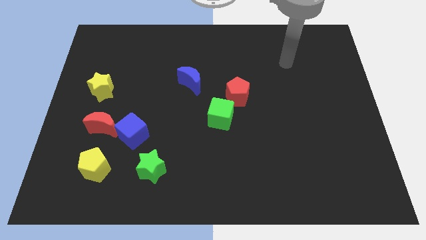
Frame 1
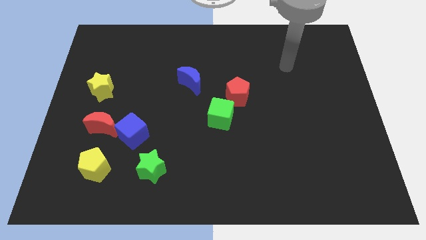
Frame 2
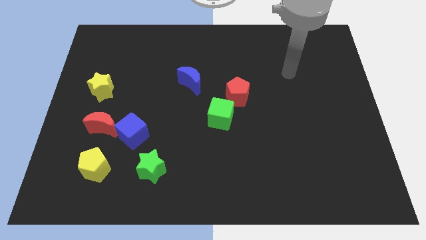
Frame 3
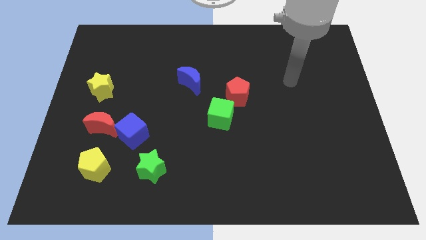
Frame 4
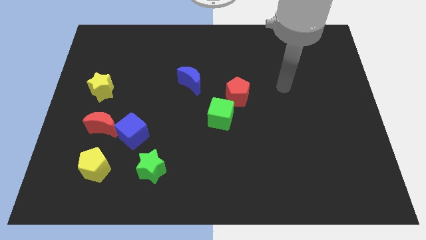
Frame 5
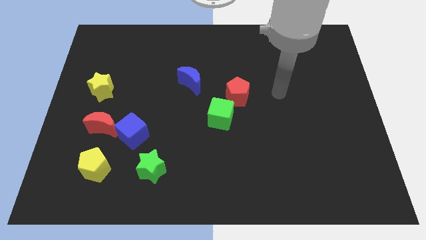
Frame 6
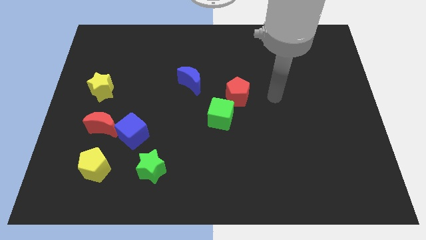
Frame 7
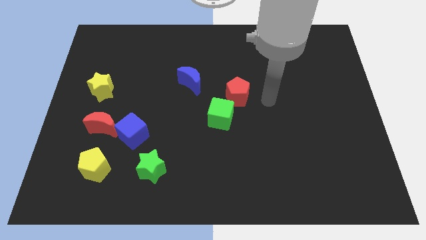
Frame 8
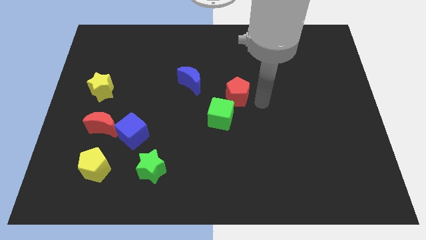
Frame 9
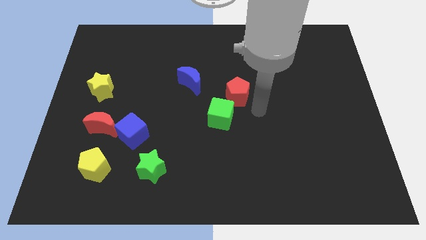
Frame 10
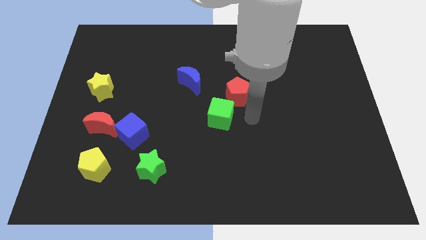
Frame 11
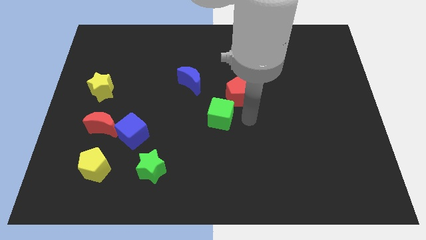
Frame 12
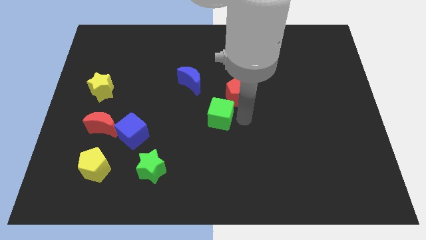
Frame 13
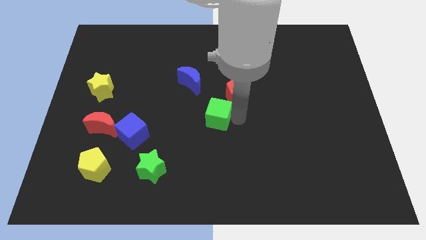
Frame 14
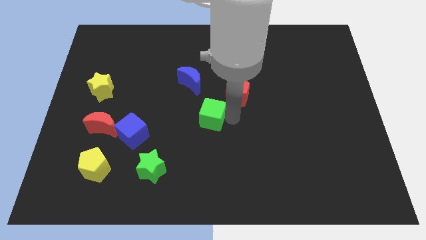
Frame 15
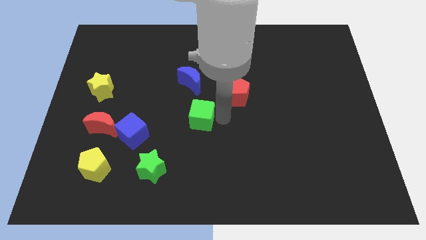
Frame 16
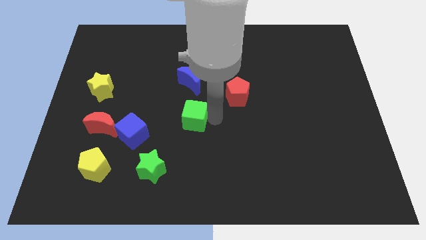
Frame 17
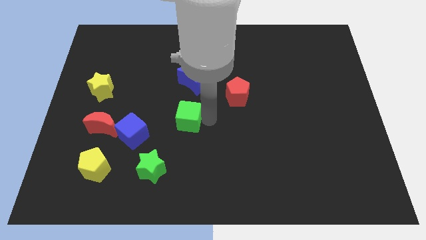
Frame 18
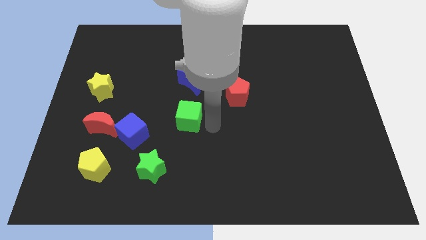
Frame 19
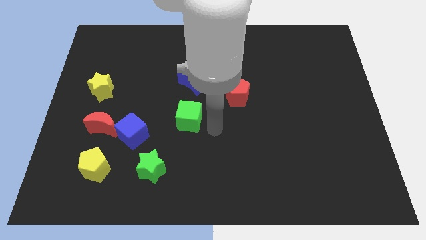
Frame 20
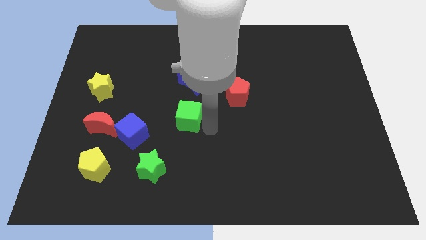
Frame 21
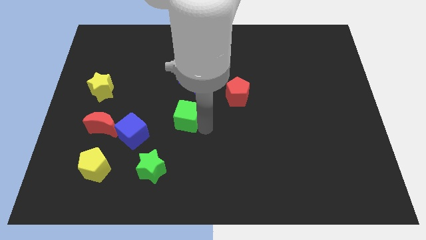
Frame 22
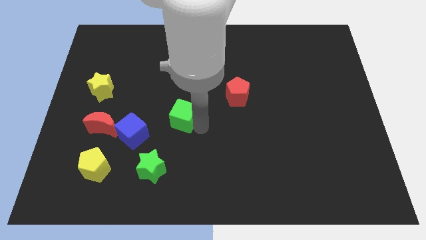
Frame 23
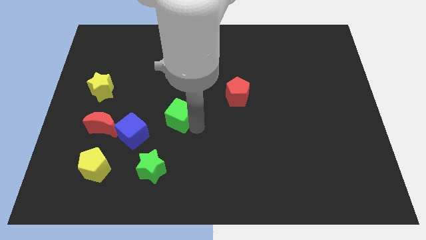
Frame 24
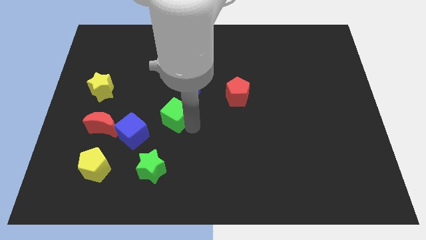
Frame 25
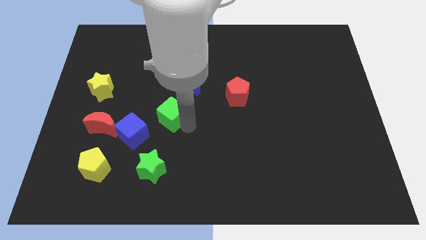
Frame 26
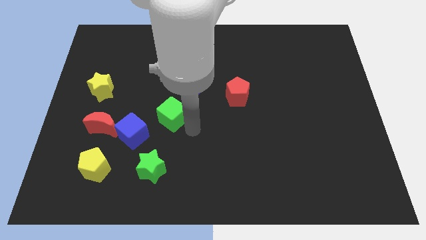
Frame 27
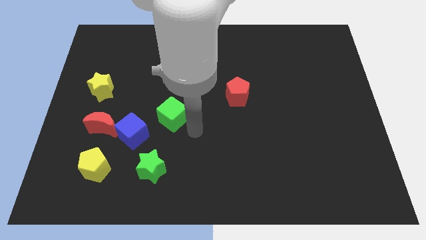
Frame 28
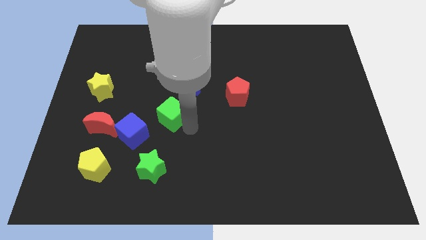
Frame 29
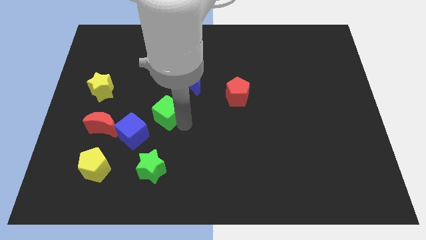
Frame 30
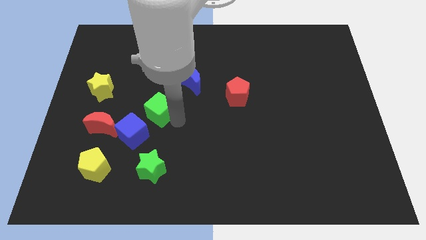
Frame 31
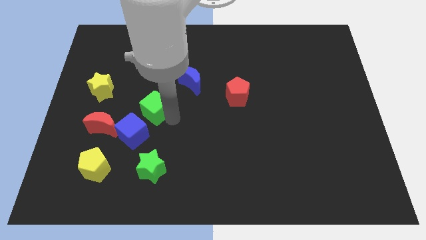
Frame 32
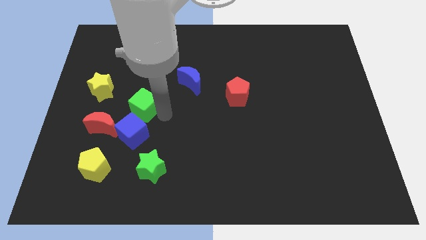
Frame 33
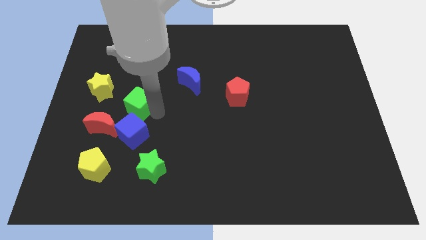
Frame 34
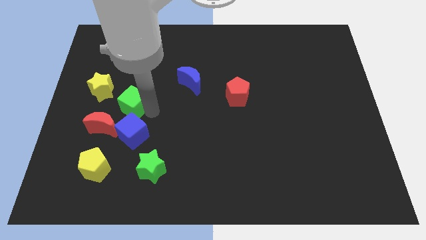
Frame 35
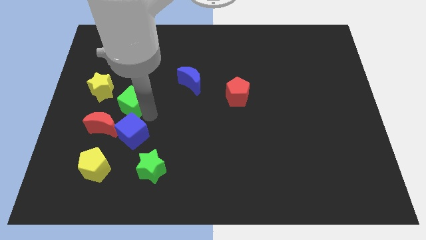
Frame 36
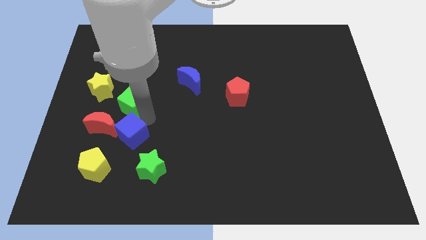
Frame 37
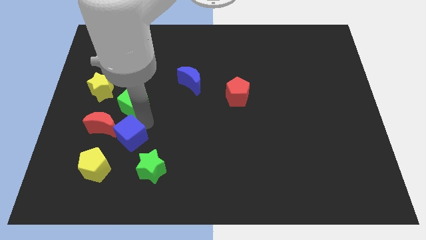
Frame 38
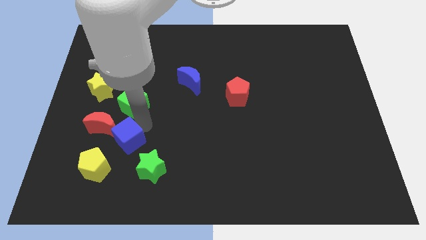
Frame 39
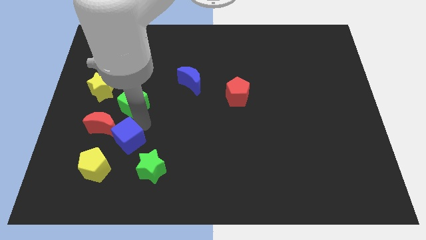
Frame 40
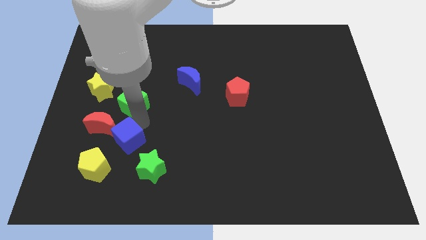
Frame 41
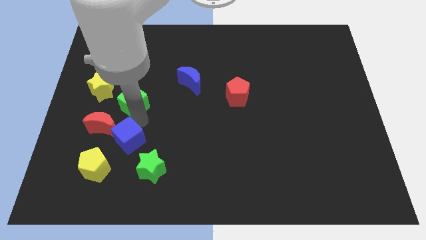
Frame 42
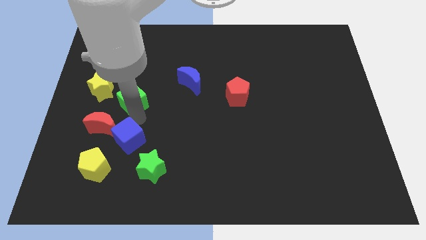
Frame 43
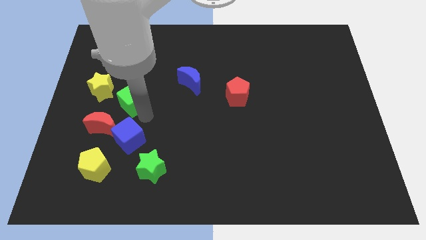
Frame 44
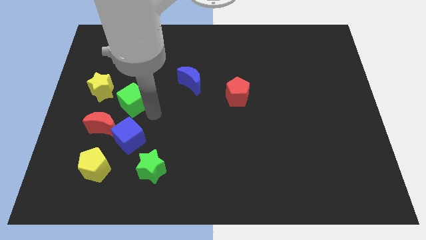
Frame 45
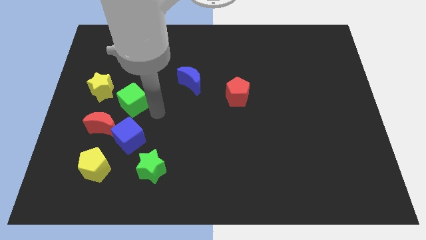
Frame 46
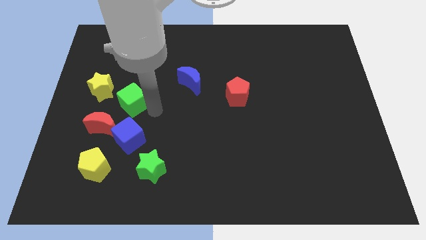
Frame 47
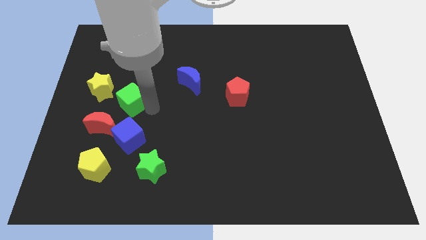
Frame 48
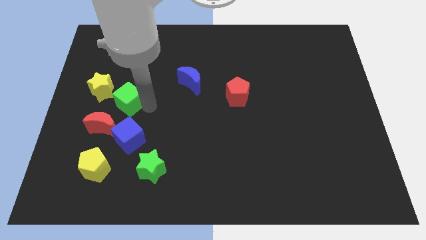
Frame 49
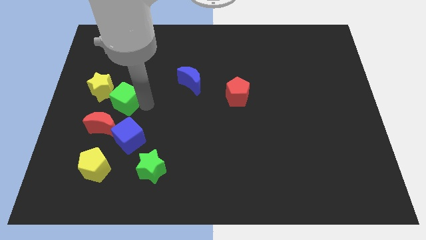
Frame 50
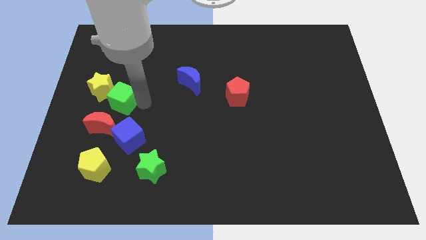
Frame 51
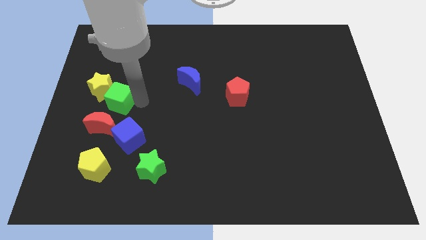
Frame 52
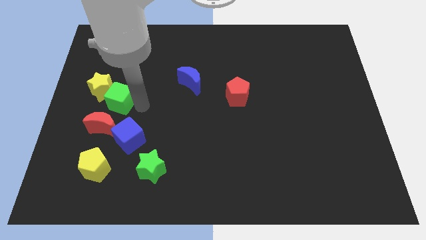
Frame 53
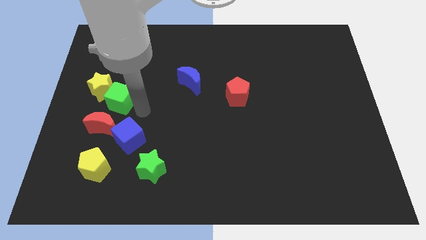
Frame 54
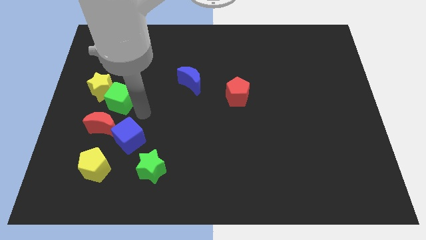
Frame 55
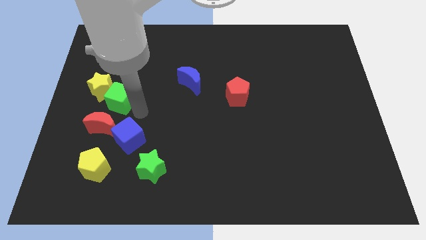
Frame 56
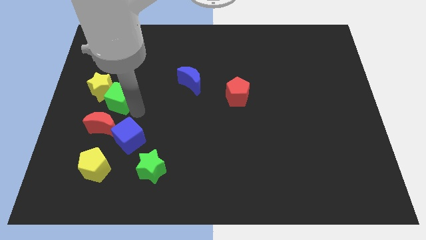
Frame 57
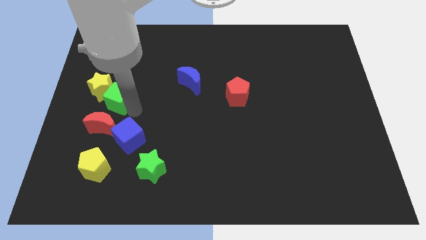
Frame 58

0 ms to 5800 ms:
move the green cube close to the yellow star

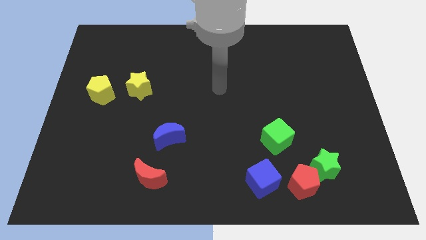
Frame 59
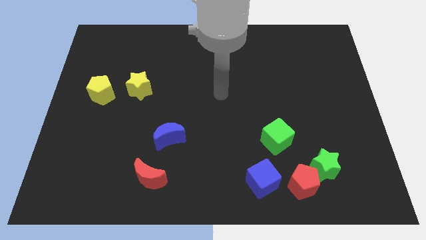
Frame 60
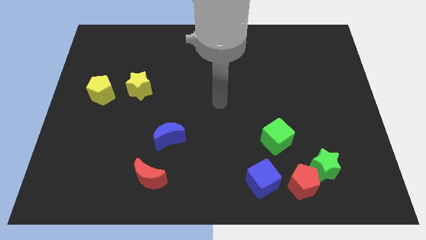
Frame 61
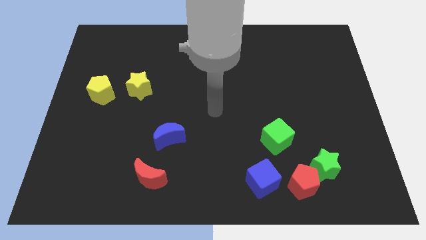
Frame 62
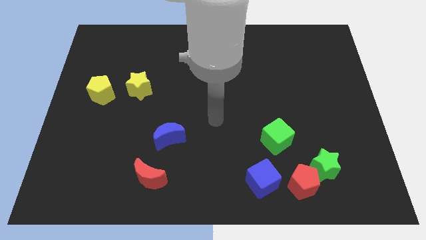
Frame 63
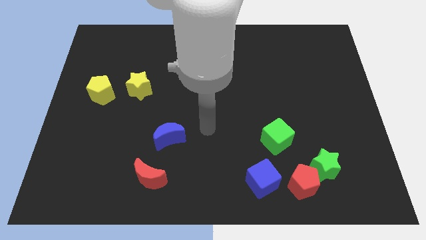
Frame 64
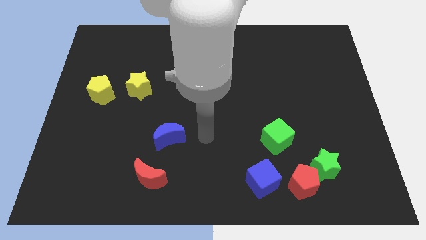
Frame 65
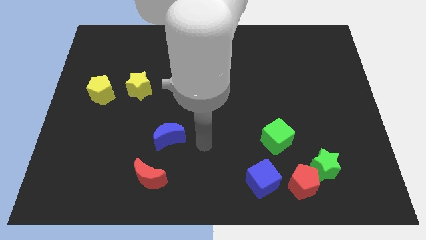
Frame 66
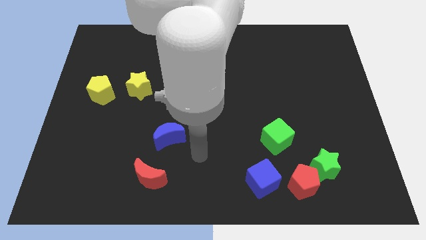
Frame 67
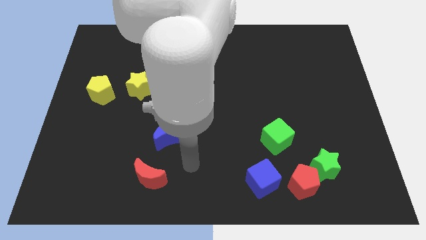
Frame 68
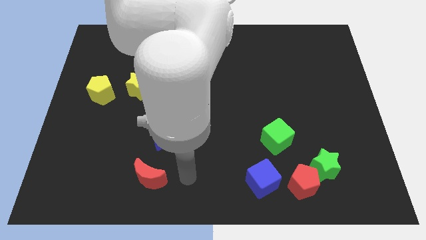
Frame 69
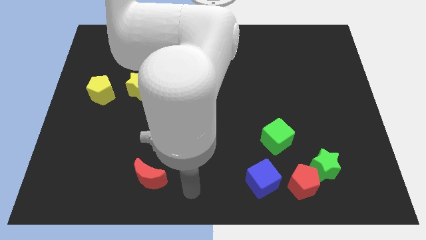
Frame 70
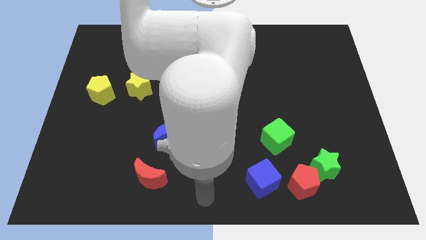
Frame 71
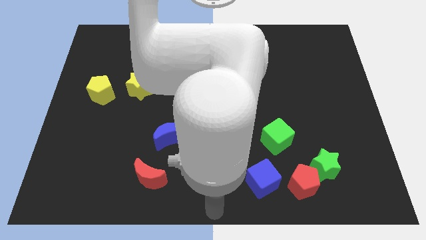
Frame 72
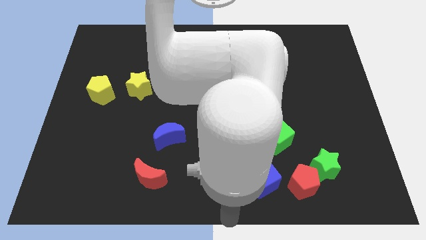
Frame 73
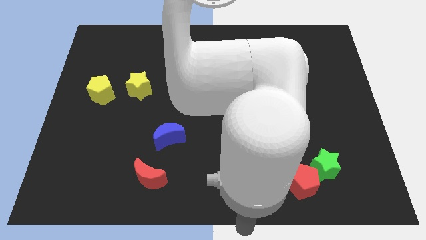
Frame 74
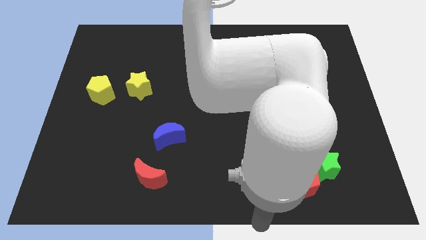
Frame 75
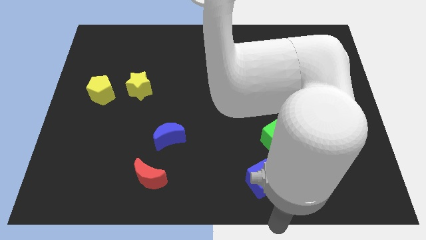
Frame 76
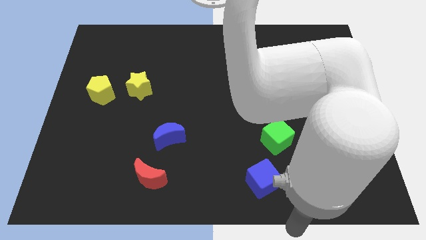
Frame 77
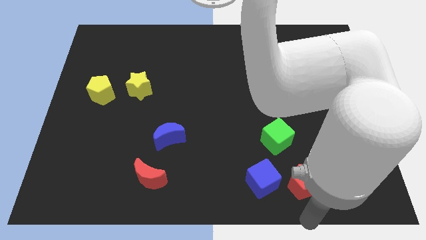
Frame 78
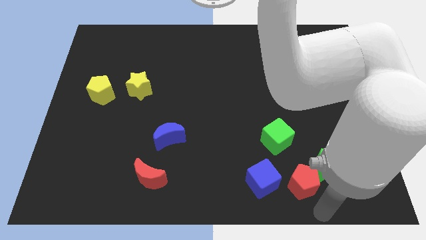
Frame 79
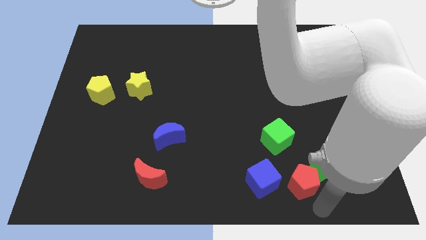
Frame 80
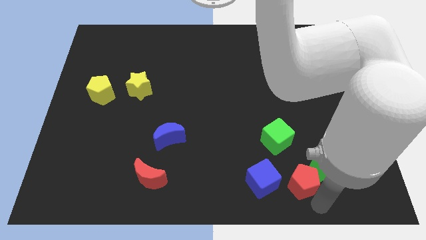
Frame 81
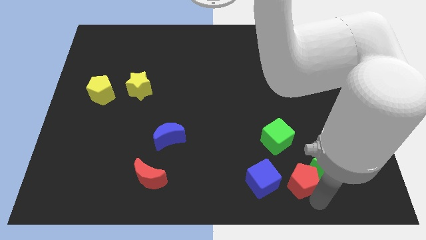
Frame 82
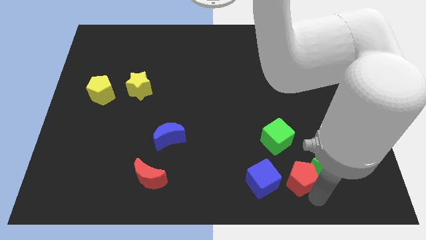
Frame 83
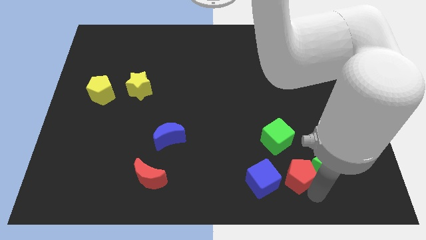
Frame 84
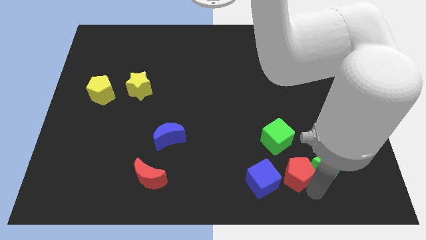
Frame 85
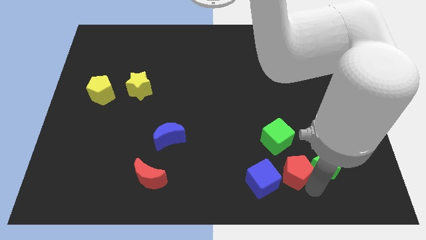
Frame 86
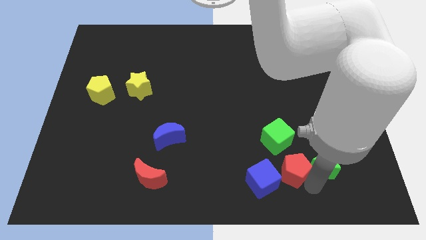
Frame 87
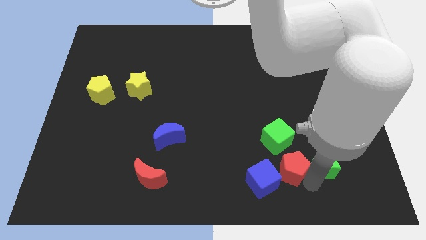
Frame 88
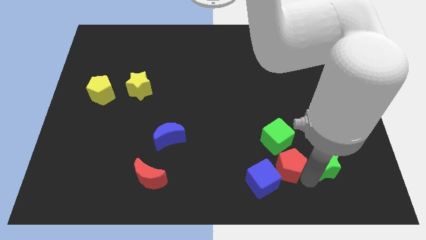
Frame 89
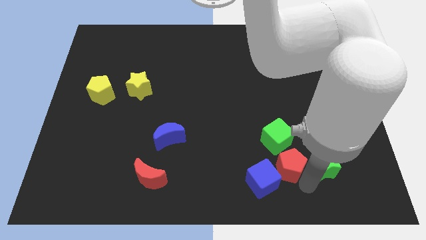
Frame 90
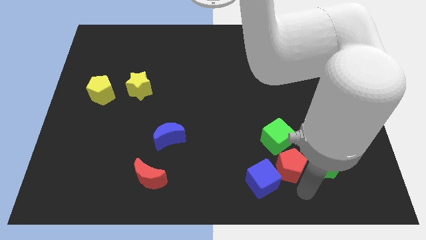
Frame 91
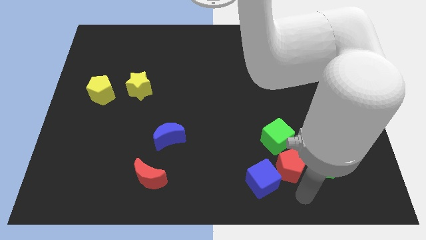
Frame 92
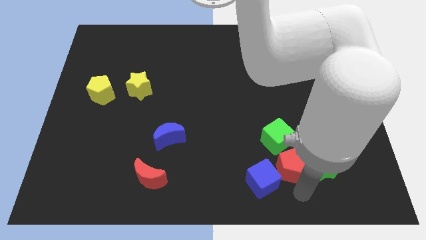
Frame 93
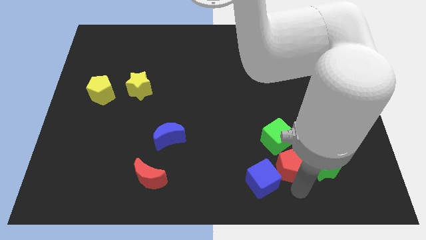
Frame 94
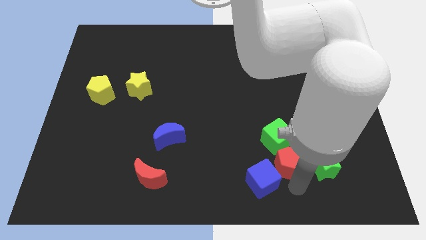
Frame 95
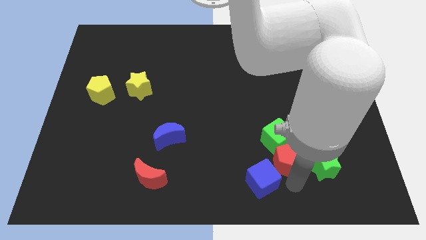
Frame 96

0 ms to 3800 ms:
put the red pentagon close to the green cube
